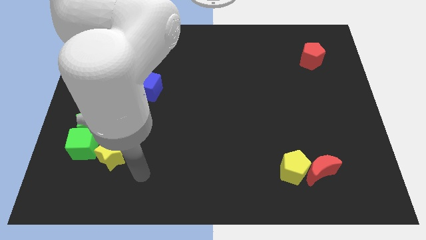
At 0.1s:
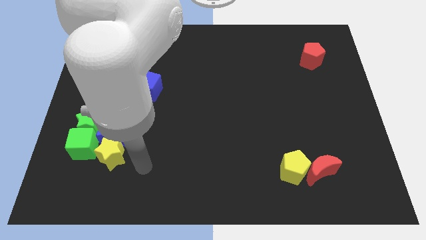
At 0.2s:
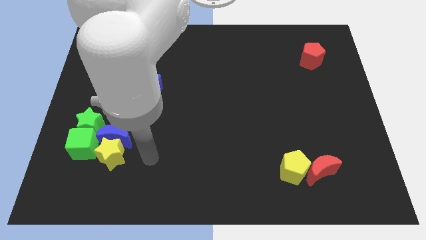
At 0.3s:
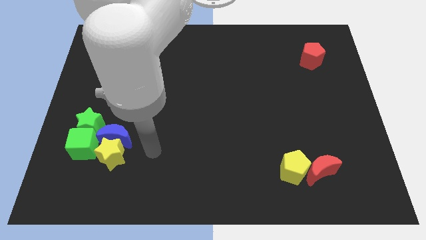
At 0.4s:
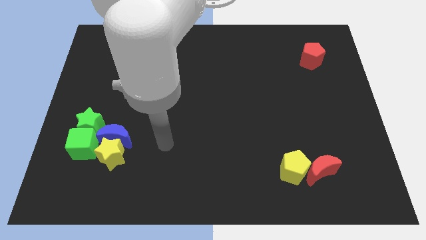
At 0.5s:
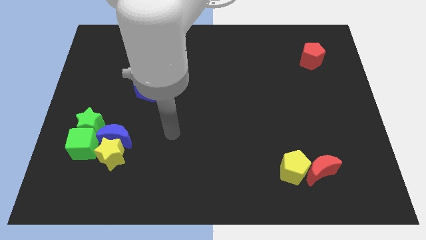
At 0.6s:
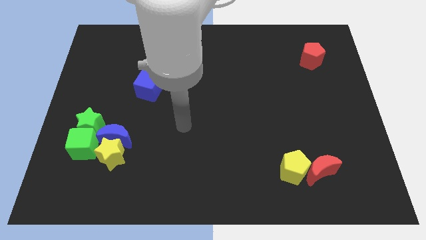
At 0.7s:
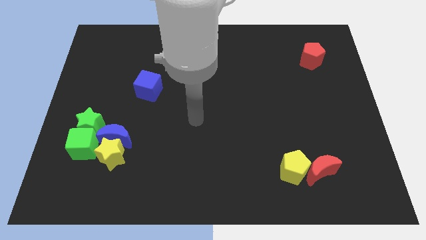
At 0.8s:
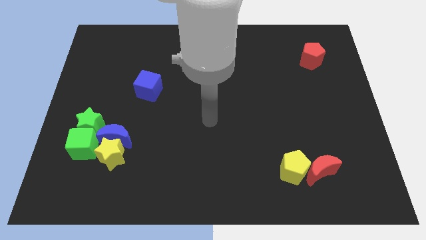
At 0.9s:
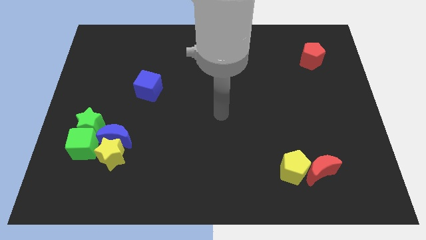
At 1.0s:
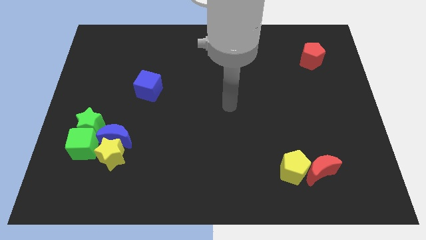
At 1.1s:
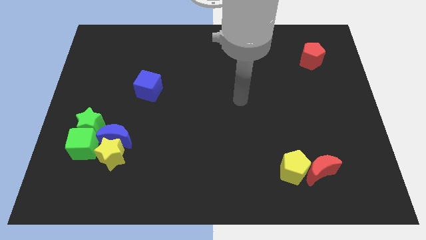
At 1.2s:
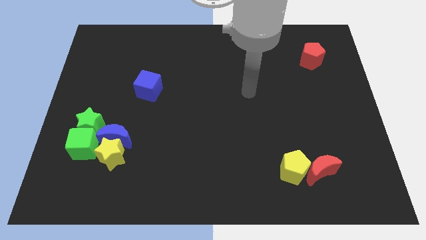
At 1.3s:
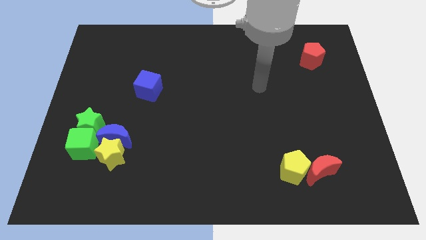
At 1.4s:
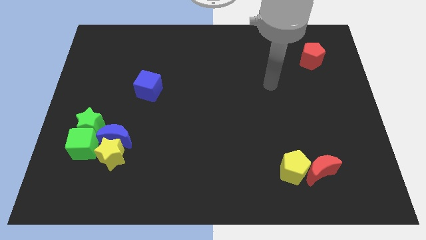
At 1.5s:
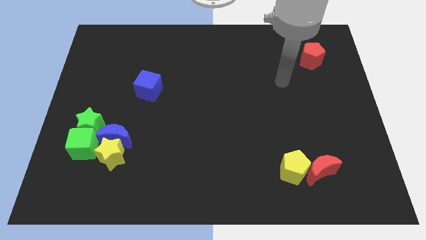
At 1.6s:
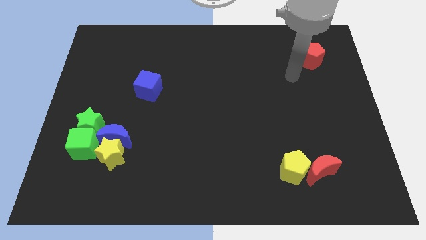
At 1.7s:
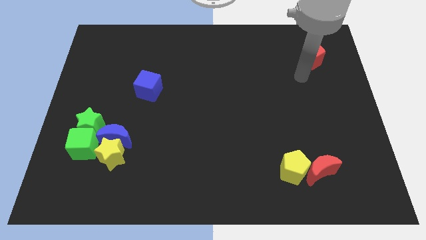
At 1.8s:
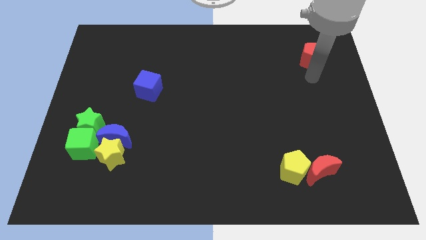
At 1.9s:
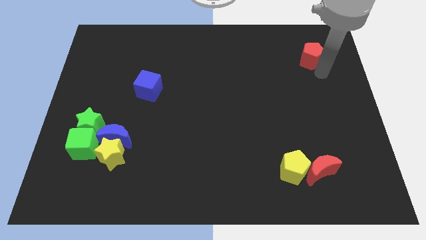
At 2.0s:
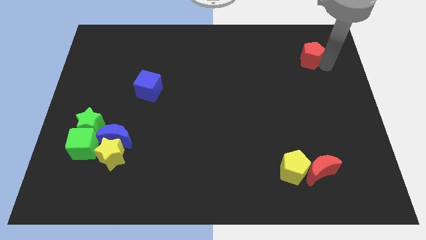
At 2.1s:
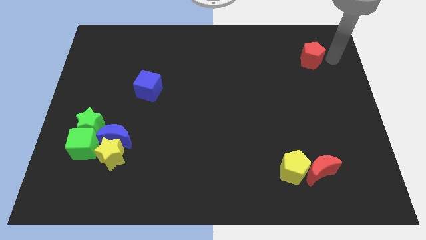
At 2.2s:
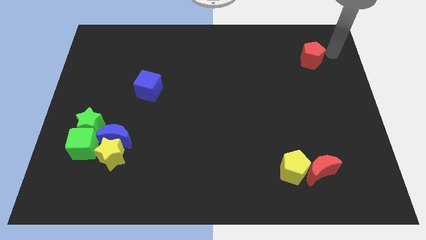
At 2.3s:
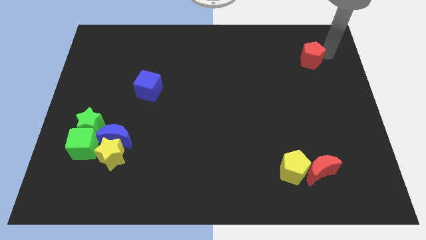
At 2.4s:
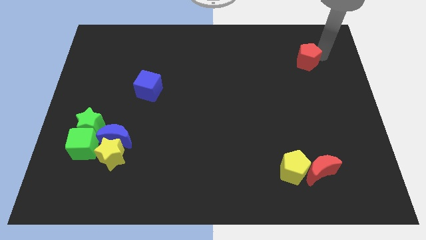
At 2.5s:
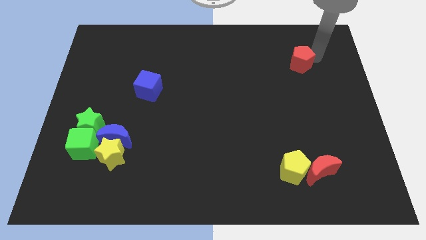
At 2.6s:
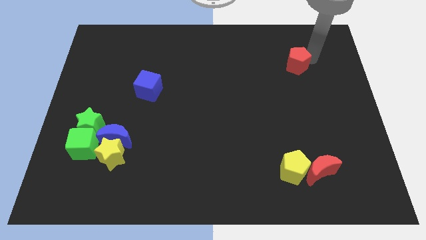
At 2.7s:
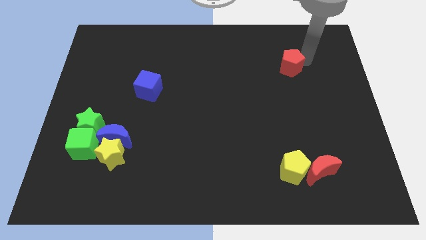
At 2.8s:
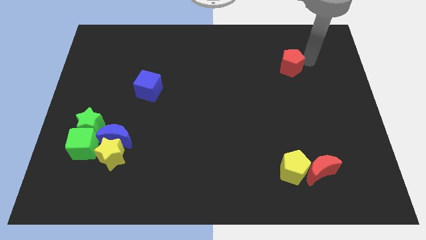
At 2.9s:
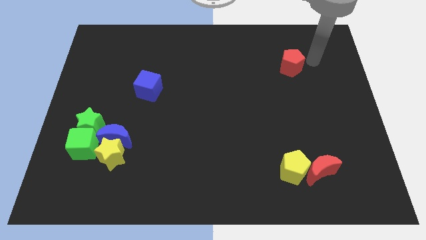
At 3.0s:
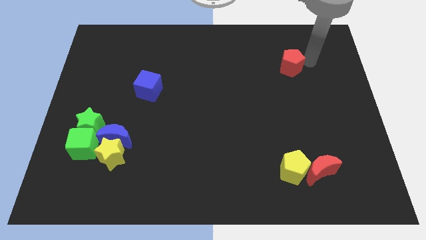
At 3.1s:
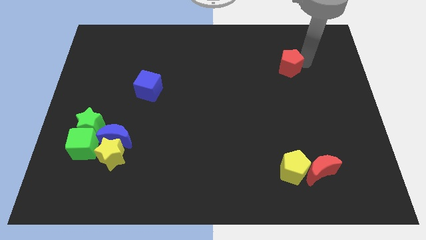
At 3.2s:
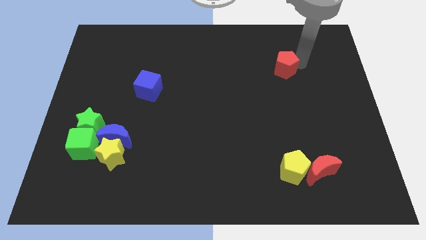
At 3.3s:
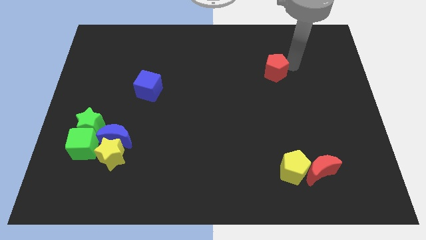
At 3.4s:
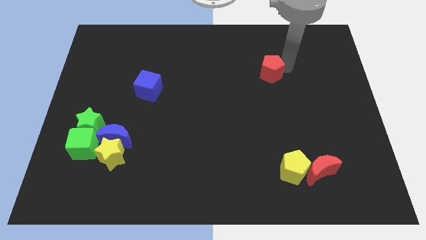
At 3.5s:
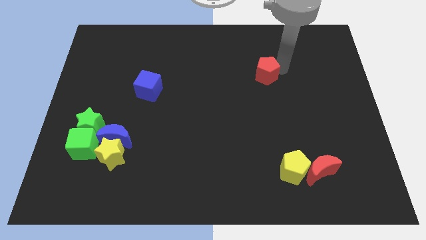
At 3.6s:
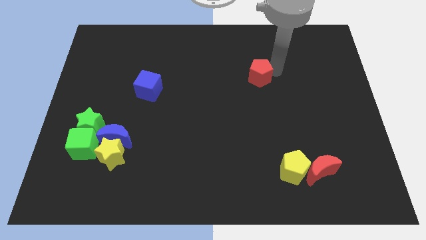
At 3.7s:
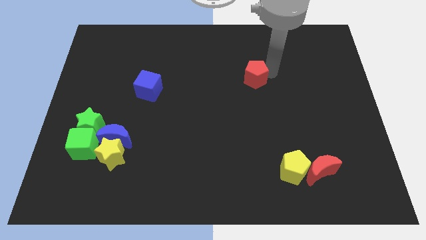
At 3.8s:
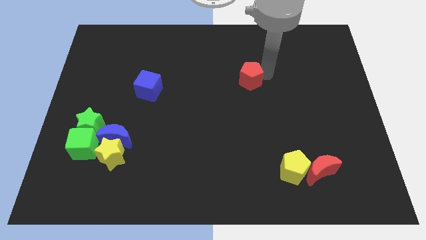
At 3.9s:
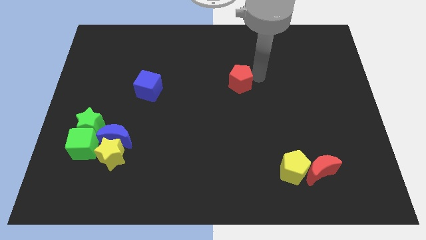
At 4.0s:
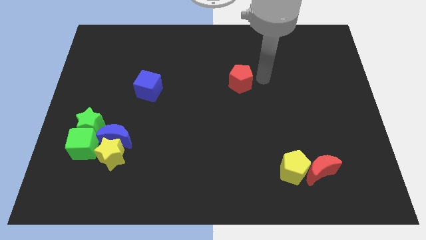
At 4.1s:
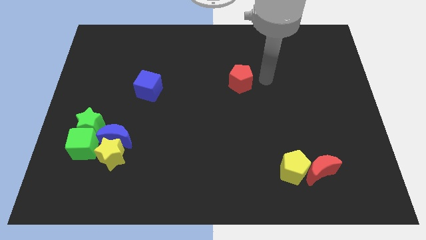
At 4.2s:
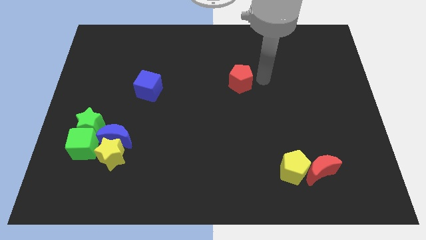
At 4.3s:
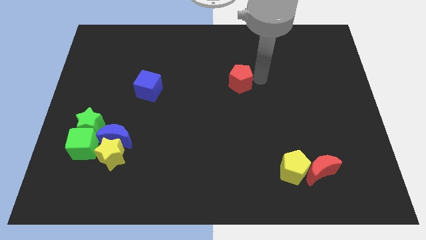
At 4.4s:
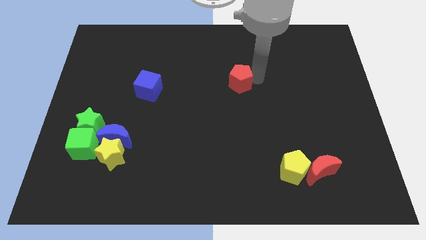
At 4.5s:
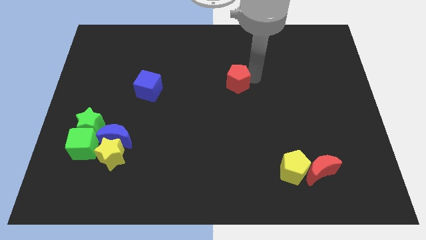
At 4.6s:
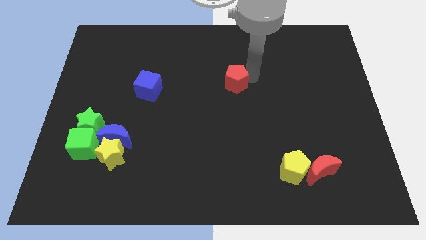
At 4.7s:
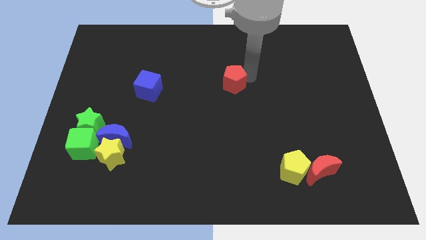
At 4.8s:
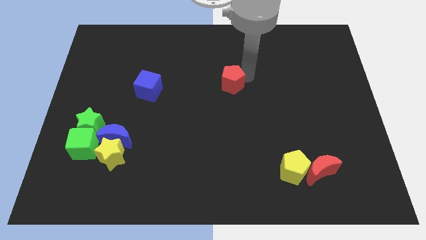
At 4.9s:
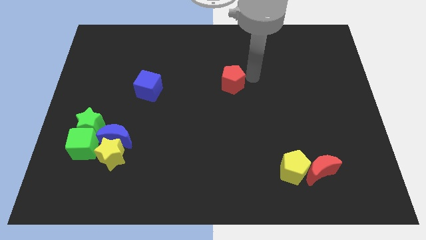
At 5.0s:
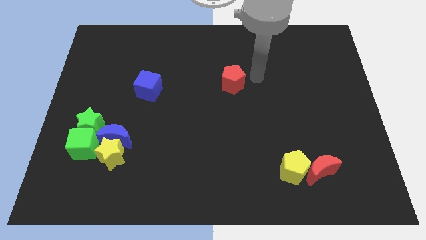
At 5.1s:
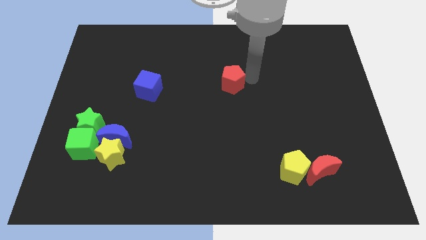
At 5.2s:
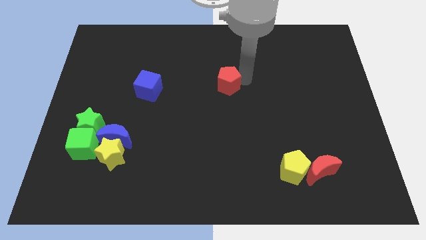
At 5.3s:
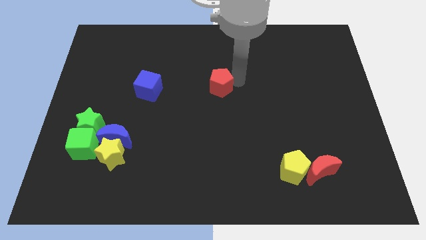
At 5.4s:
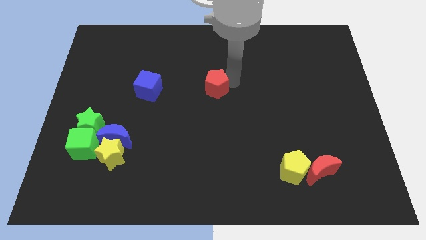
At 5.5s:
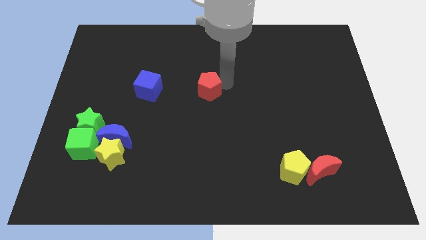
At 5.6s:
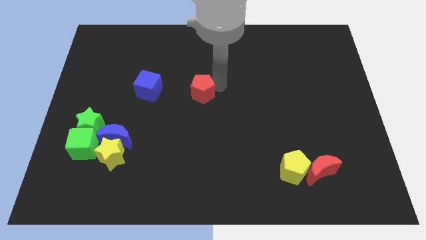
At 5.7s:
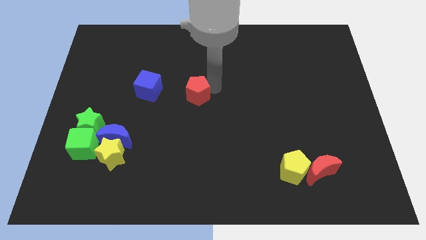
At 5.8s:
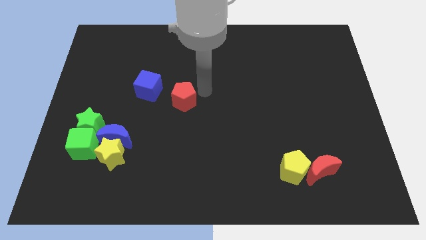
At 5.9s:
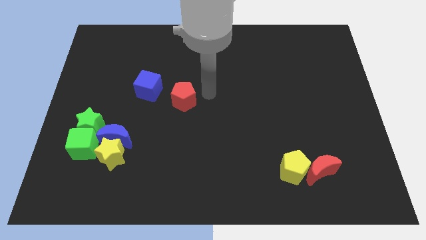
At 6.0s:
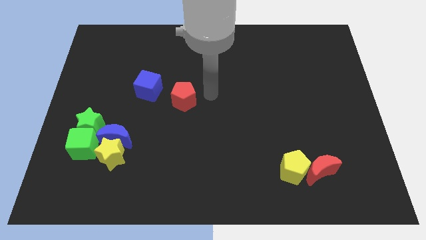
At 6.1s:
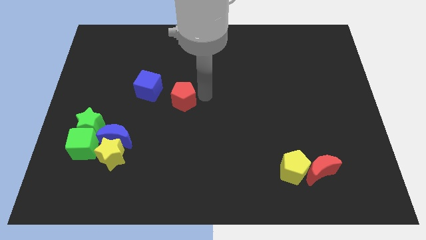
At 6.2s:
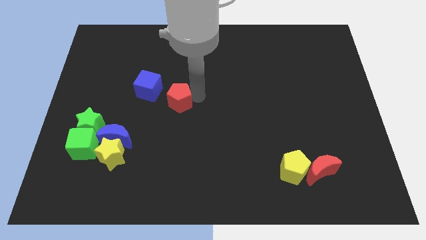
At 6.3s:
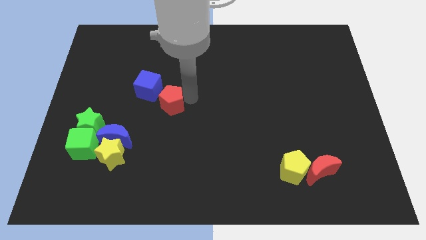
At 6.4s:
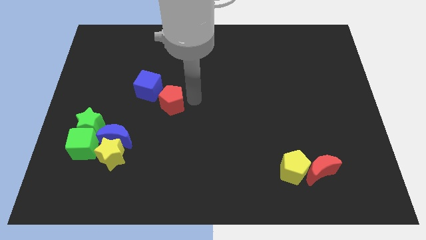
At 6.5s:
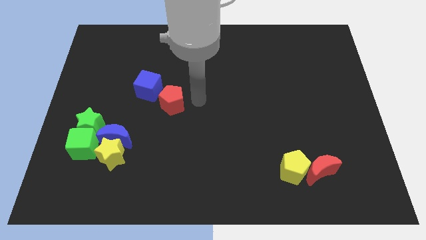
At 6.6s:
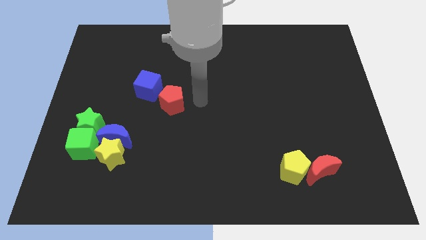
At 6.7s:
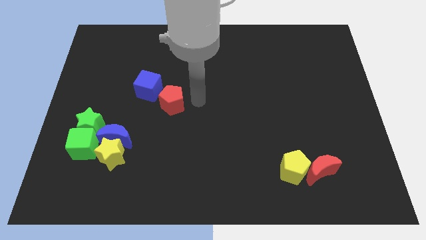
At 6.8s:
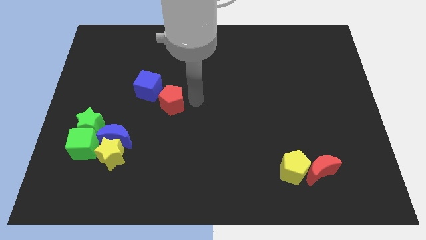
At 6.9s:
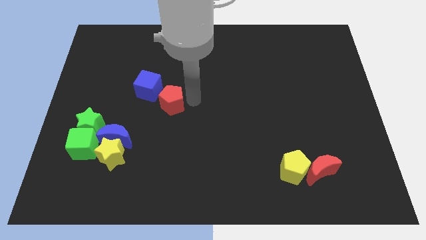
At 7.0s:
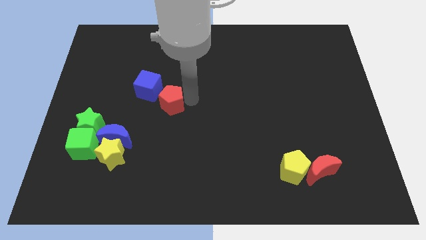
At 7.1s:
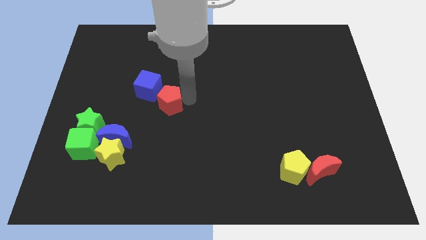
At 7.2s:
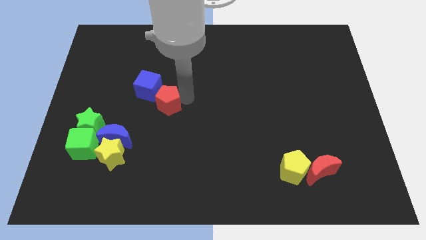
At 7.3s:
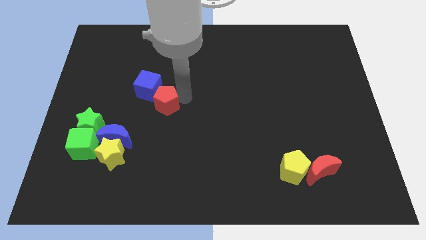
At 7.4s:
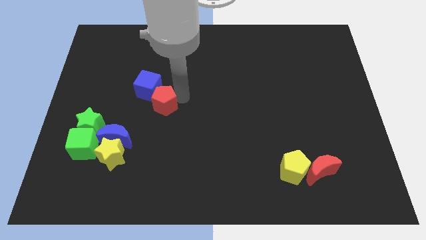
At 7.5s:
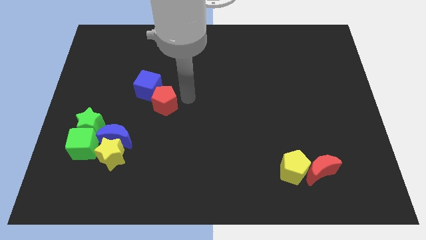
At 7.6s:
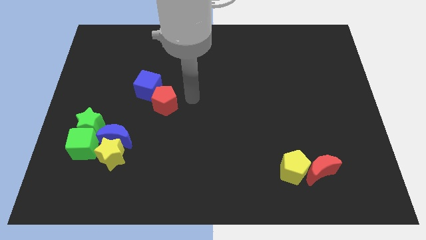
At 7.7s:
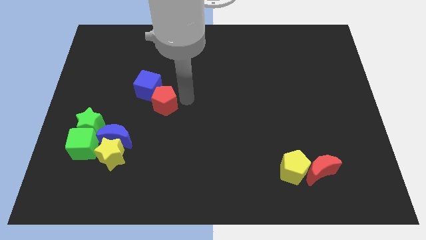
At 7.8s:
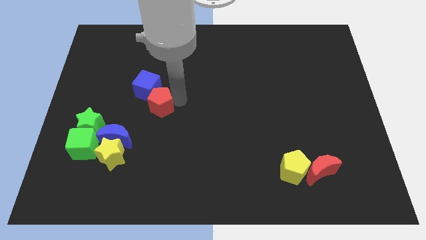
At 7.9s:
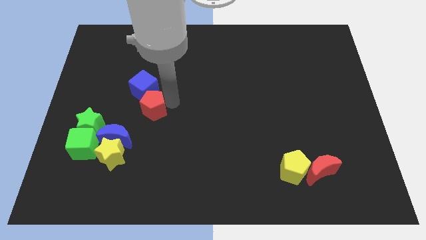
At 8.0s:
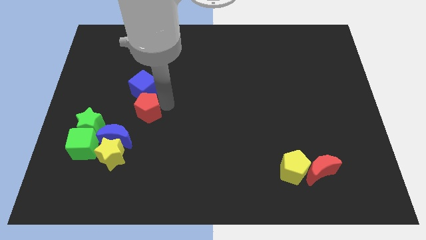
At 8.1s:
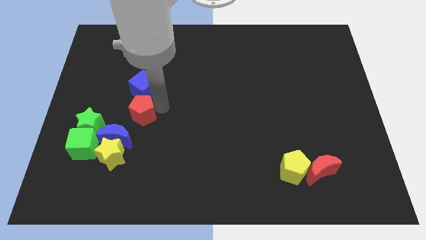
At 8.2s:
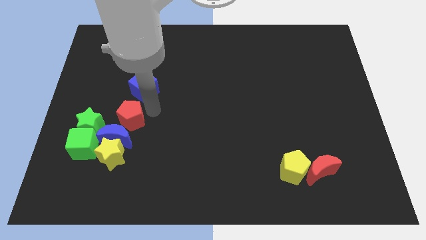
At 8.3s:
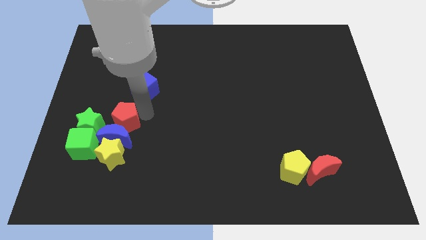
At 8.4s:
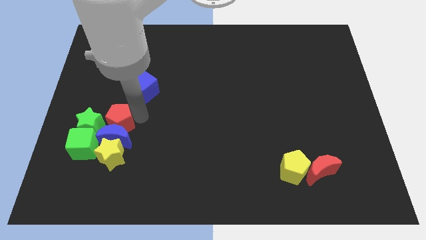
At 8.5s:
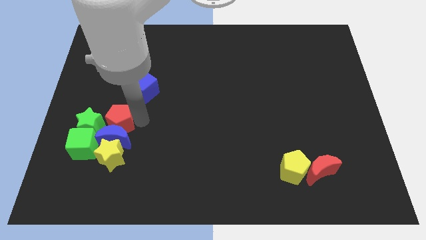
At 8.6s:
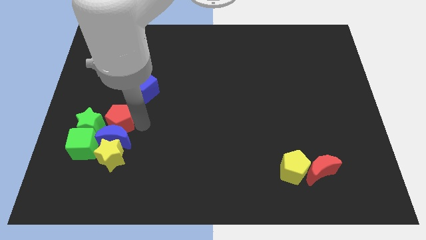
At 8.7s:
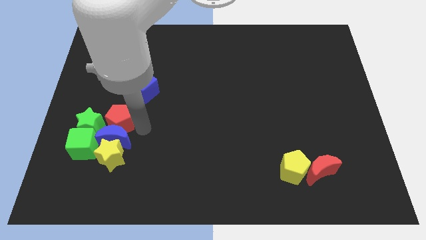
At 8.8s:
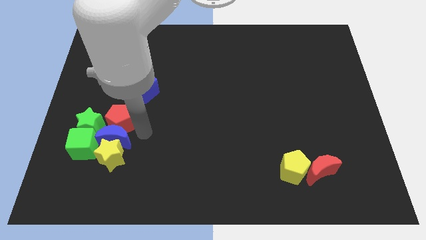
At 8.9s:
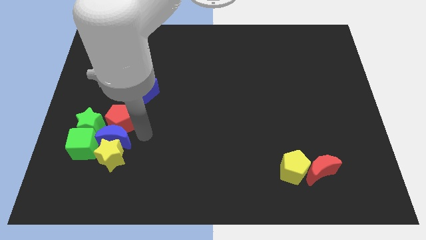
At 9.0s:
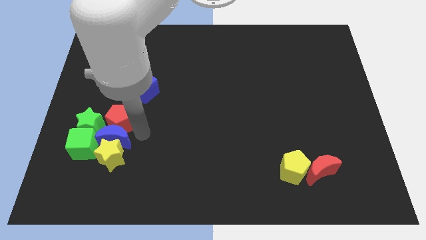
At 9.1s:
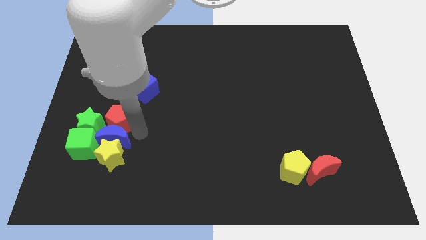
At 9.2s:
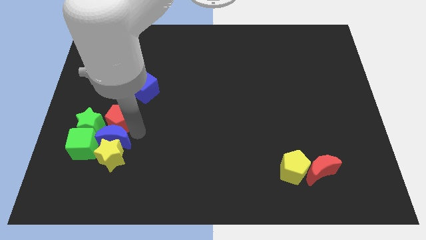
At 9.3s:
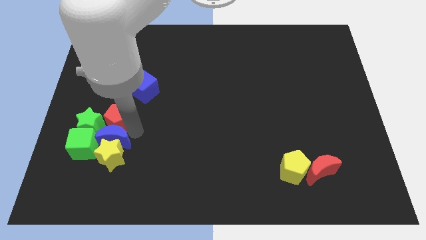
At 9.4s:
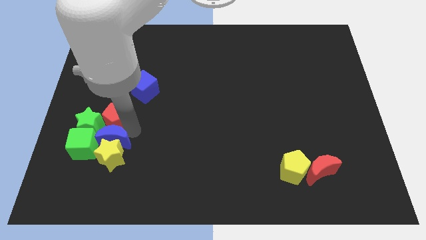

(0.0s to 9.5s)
put the red pentagon towards the green star
